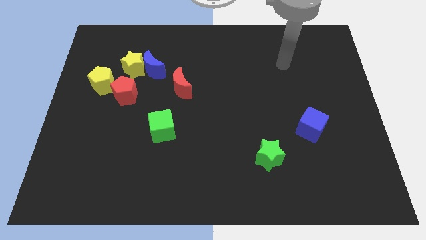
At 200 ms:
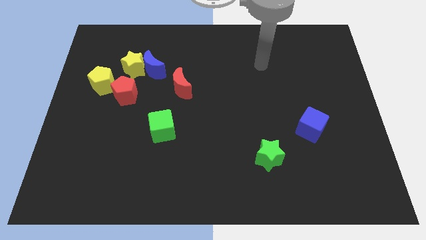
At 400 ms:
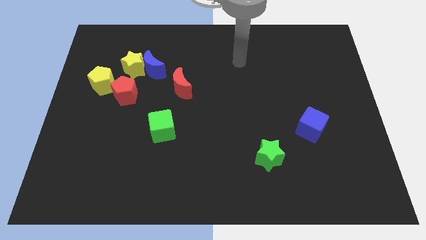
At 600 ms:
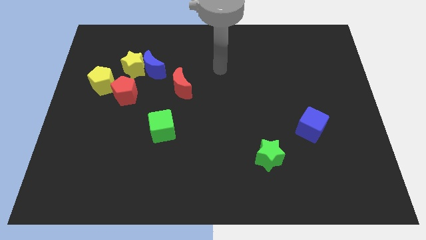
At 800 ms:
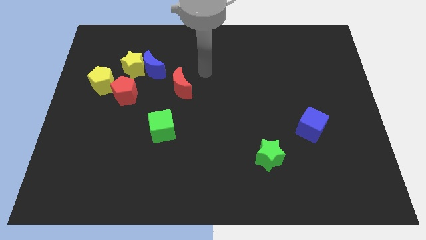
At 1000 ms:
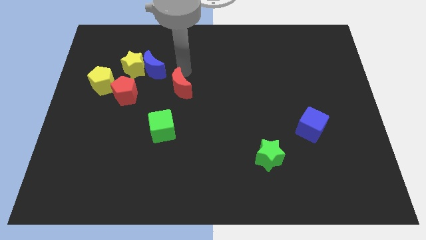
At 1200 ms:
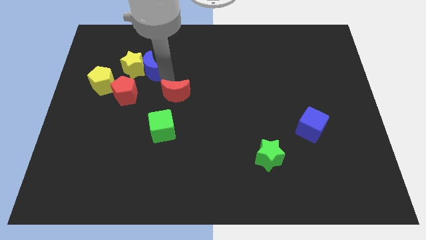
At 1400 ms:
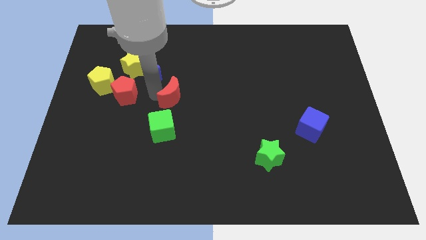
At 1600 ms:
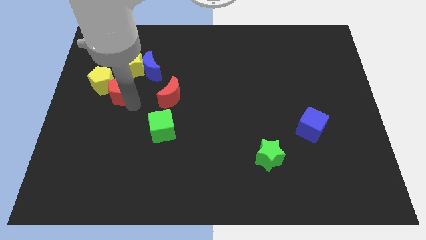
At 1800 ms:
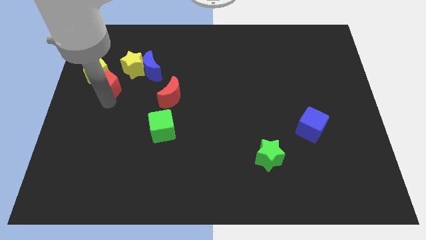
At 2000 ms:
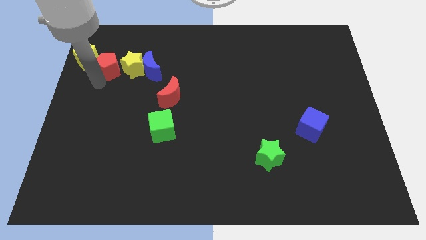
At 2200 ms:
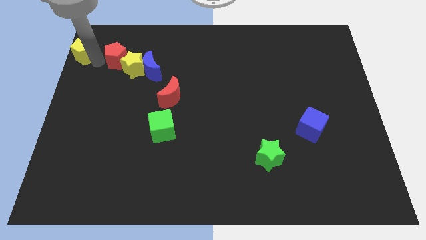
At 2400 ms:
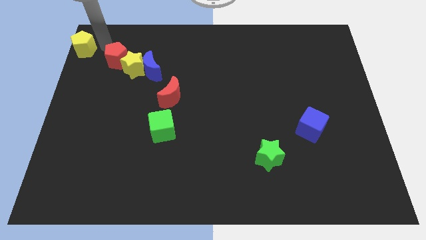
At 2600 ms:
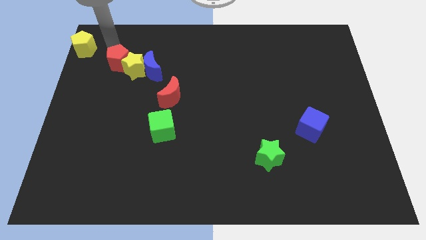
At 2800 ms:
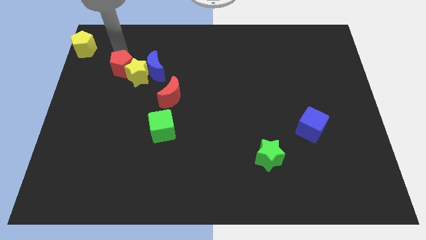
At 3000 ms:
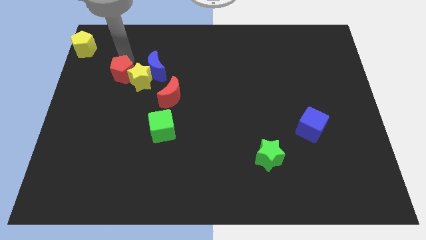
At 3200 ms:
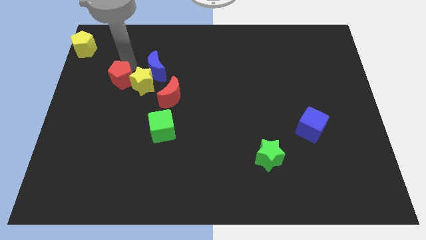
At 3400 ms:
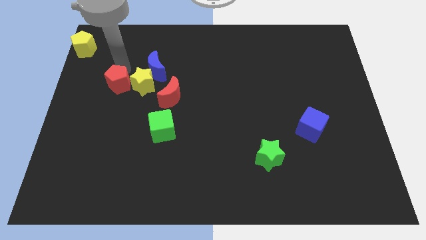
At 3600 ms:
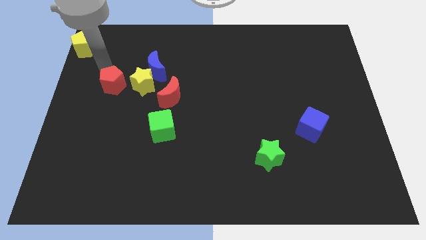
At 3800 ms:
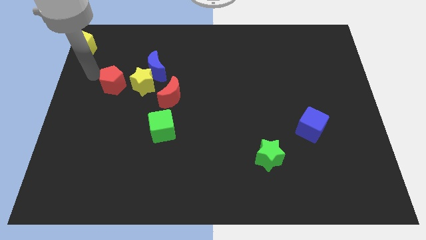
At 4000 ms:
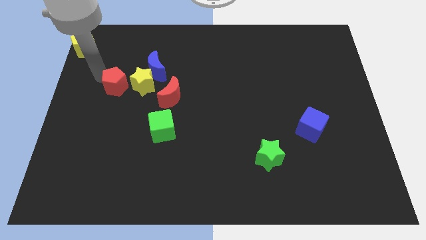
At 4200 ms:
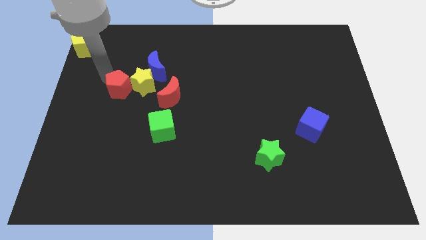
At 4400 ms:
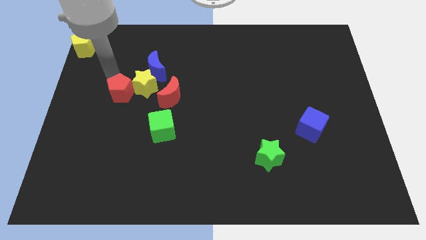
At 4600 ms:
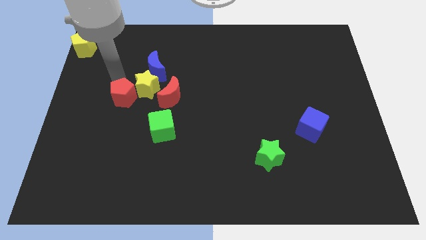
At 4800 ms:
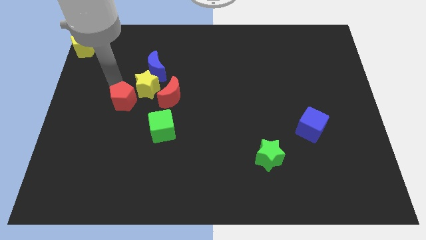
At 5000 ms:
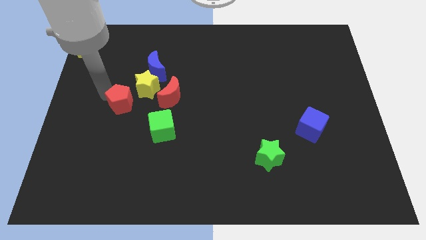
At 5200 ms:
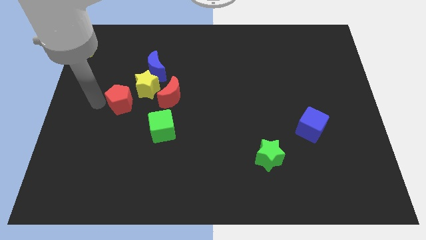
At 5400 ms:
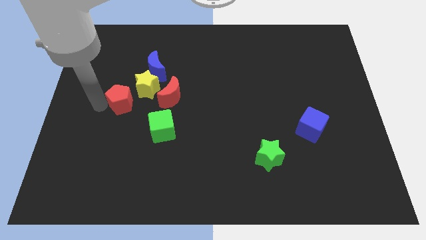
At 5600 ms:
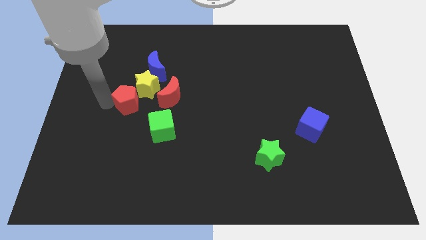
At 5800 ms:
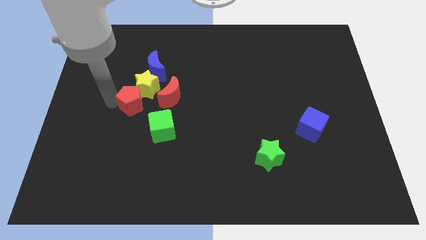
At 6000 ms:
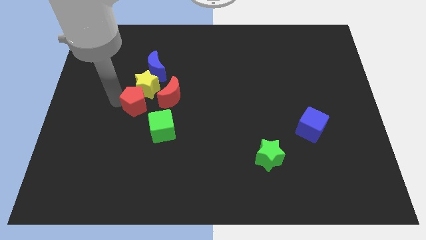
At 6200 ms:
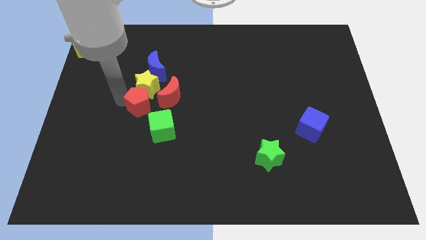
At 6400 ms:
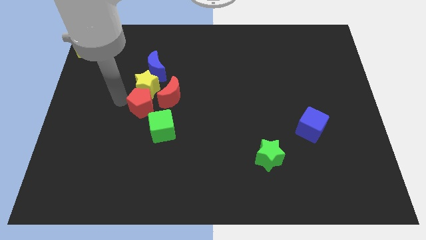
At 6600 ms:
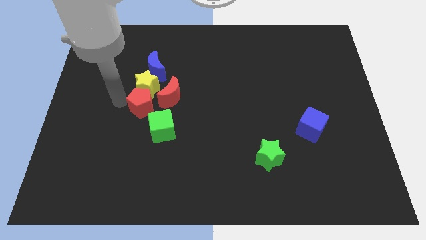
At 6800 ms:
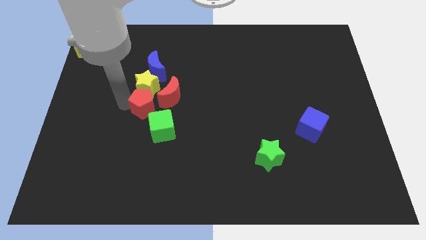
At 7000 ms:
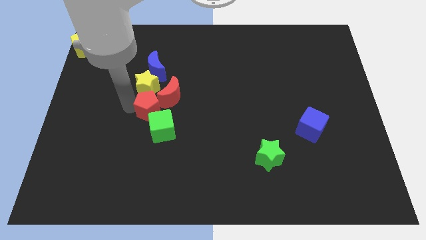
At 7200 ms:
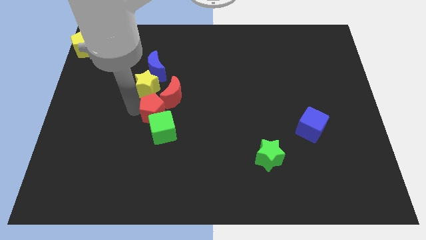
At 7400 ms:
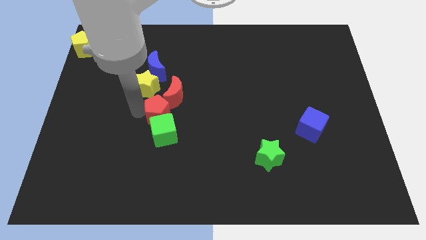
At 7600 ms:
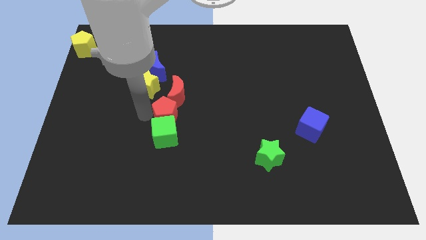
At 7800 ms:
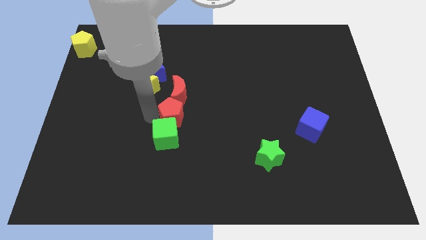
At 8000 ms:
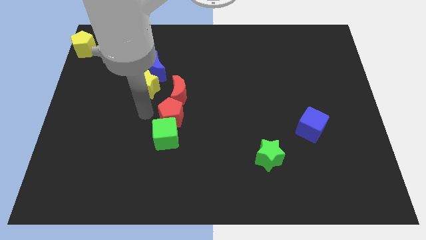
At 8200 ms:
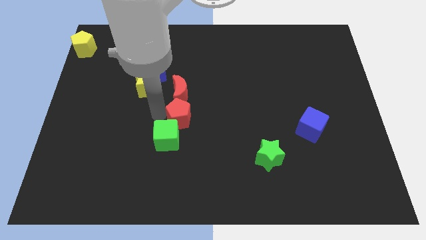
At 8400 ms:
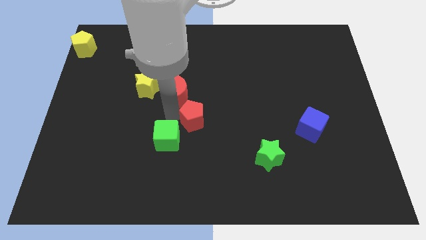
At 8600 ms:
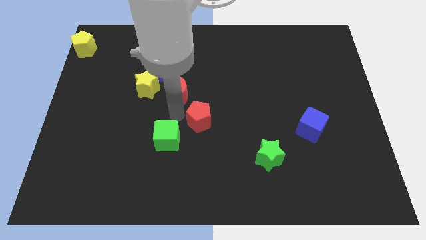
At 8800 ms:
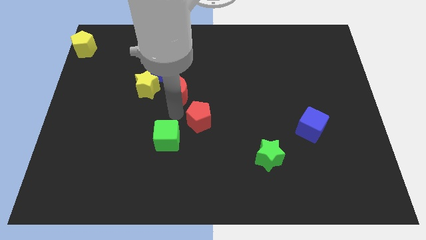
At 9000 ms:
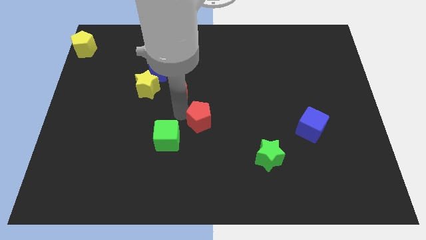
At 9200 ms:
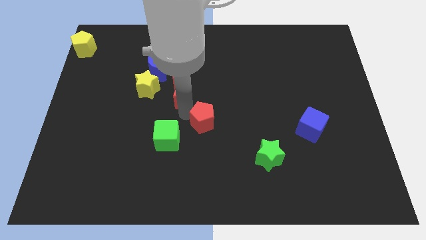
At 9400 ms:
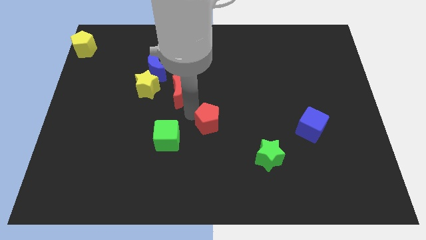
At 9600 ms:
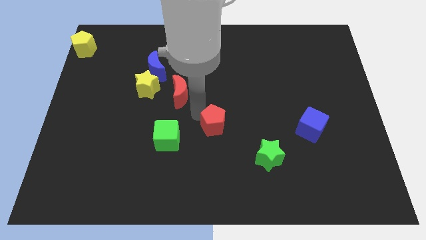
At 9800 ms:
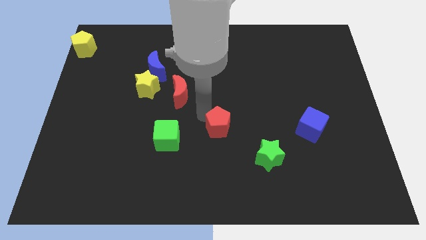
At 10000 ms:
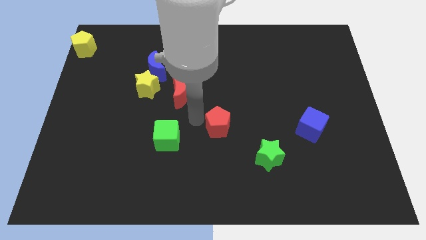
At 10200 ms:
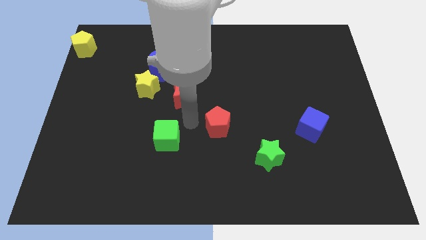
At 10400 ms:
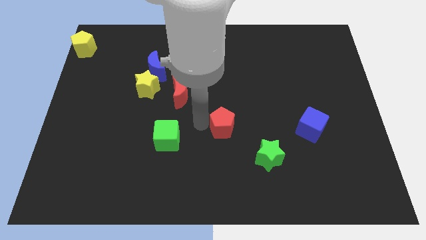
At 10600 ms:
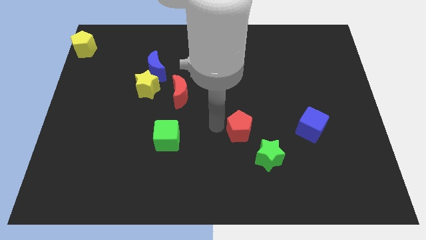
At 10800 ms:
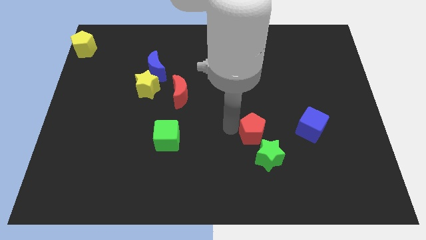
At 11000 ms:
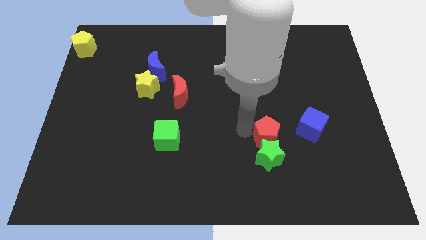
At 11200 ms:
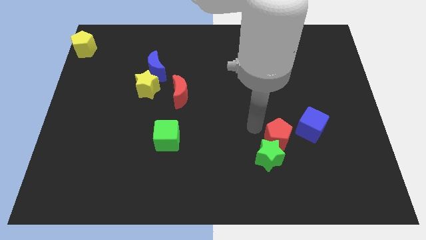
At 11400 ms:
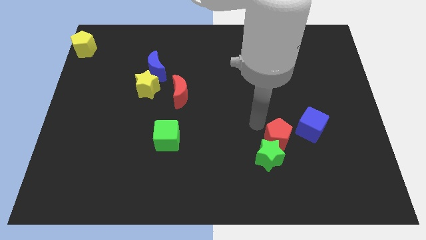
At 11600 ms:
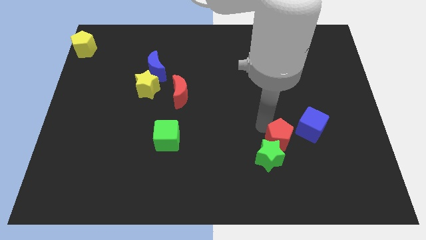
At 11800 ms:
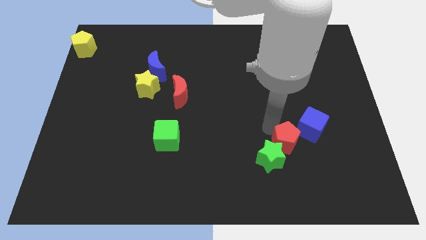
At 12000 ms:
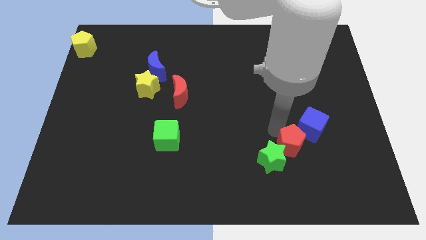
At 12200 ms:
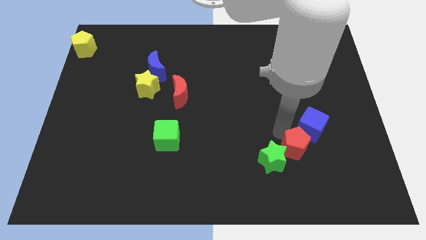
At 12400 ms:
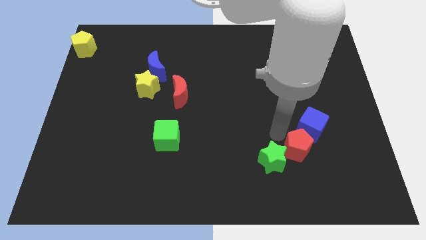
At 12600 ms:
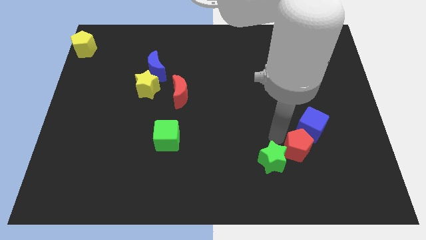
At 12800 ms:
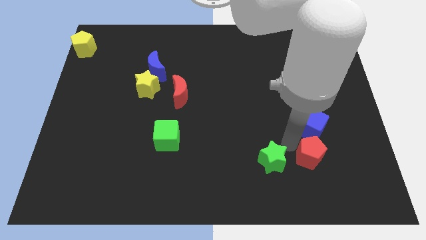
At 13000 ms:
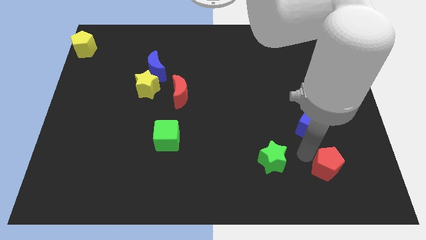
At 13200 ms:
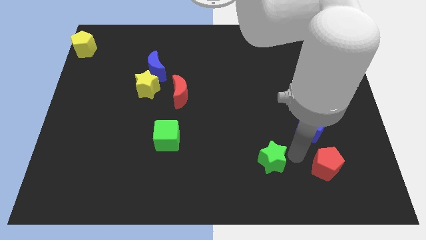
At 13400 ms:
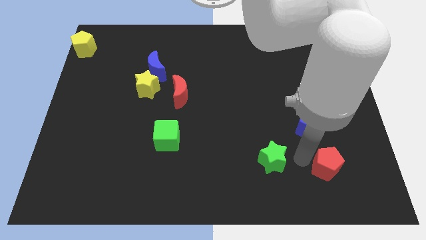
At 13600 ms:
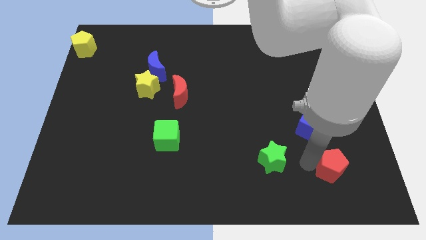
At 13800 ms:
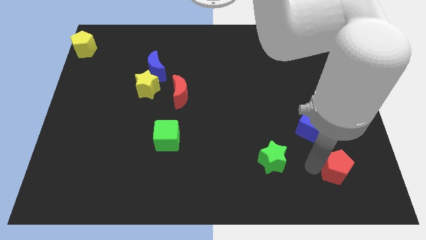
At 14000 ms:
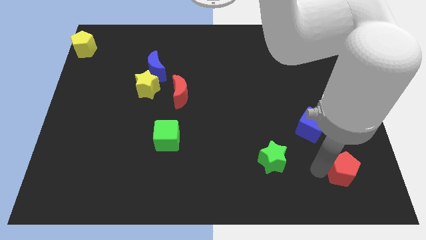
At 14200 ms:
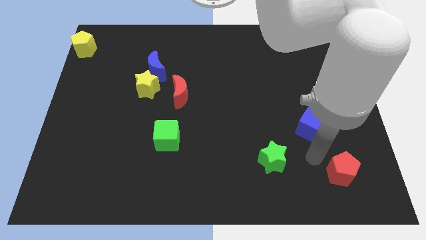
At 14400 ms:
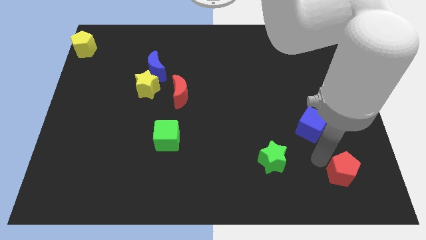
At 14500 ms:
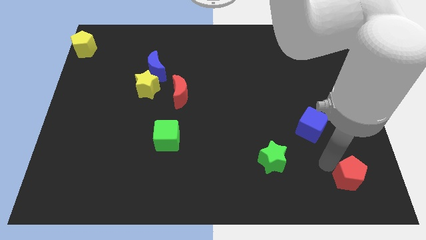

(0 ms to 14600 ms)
move the red pentagon to the lower right corner
